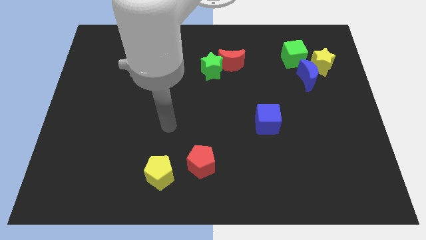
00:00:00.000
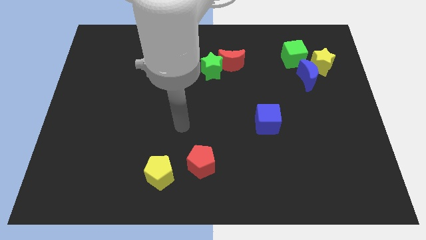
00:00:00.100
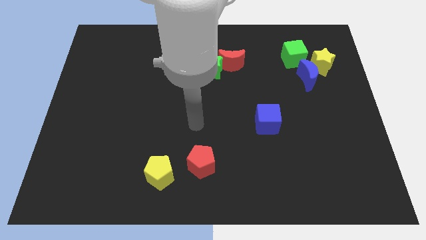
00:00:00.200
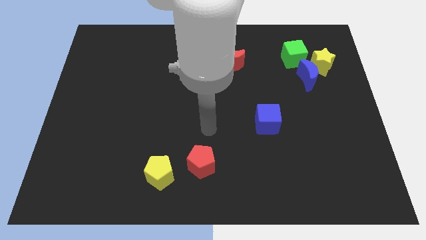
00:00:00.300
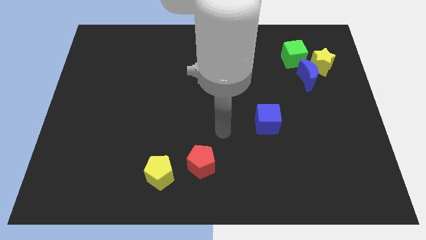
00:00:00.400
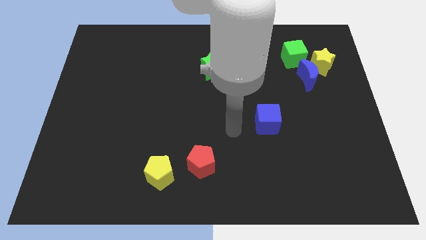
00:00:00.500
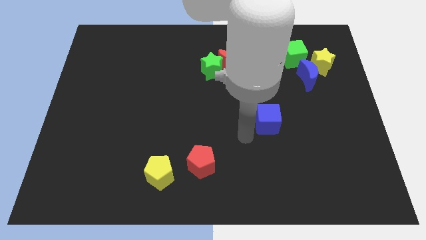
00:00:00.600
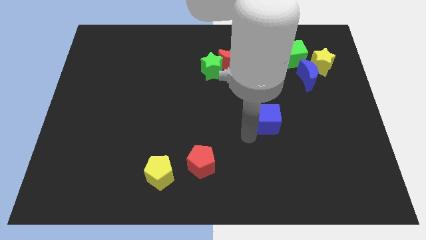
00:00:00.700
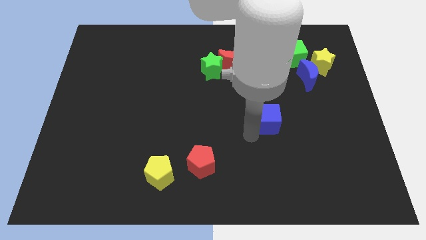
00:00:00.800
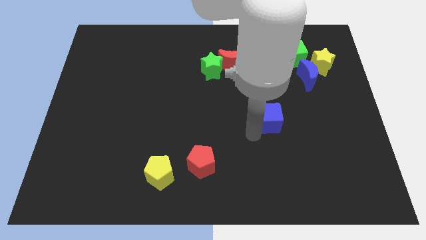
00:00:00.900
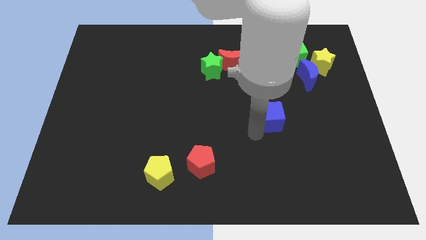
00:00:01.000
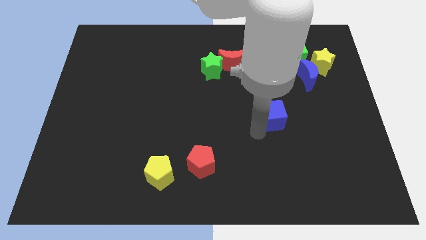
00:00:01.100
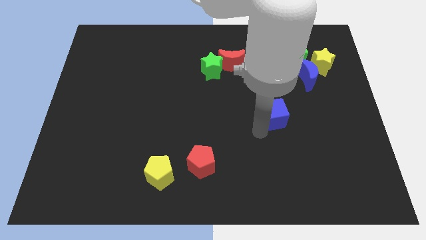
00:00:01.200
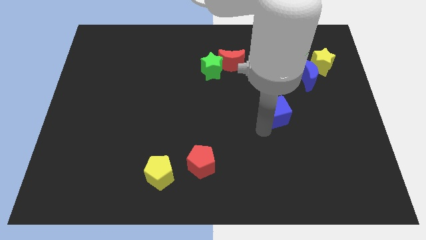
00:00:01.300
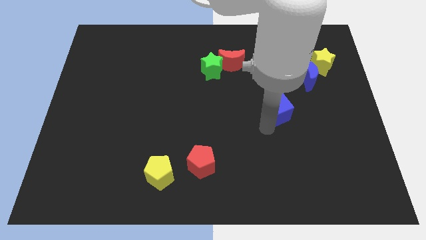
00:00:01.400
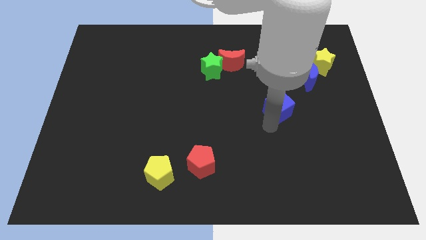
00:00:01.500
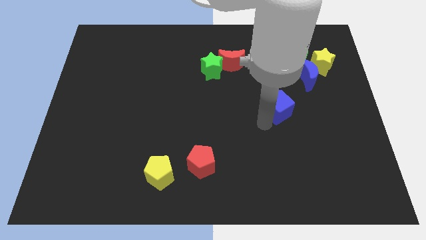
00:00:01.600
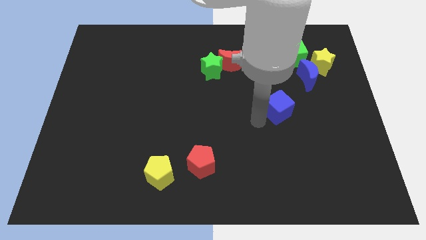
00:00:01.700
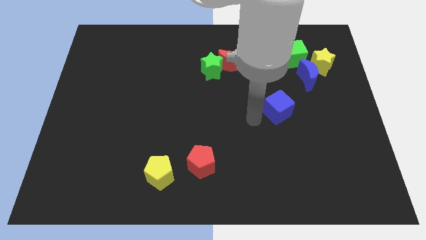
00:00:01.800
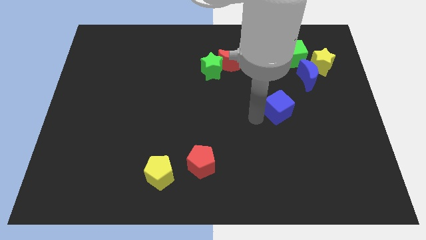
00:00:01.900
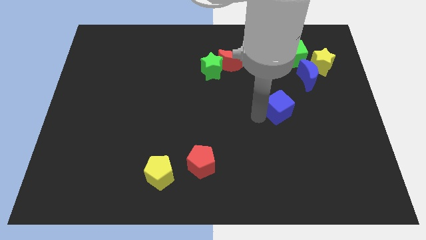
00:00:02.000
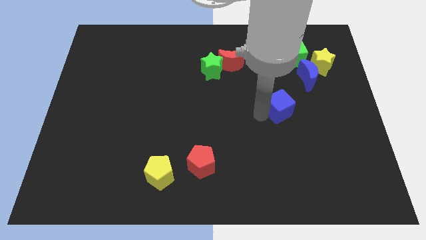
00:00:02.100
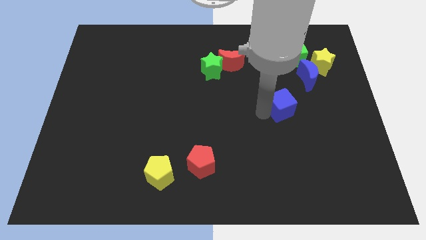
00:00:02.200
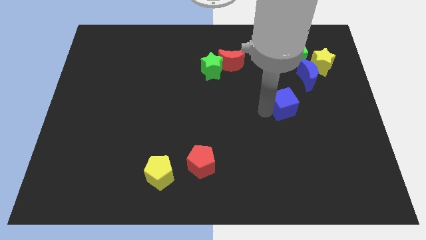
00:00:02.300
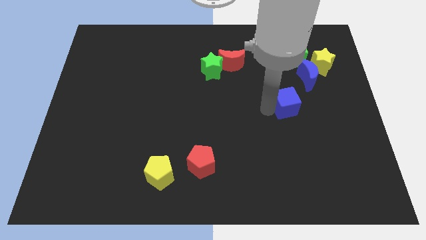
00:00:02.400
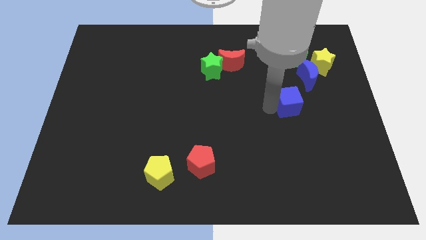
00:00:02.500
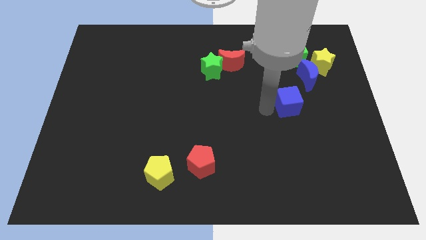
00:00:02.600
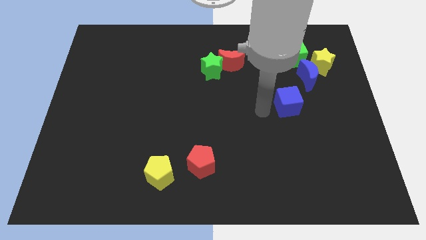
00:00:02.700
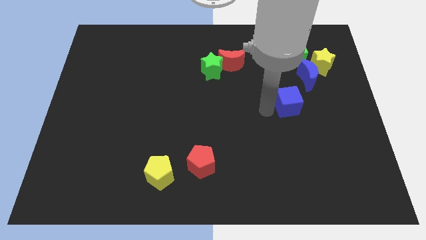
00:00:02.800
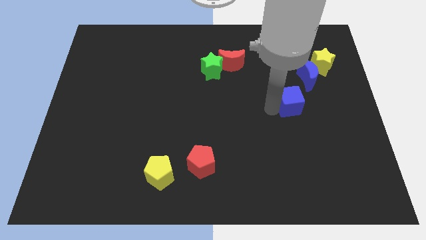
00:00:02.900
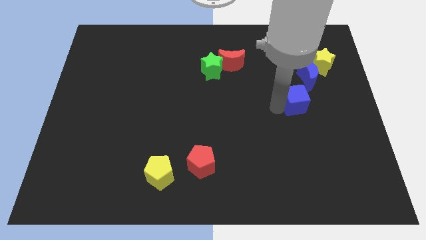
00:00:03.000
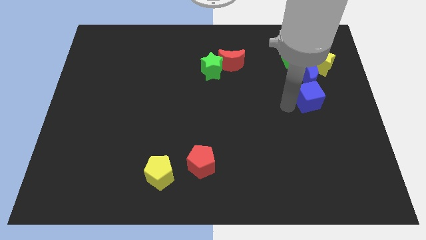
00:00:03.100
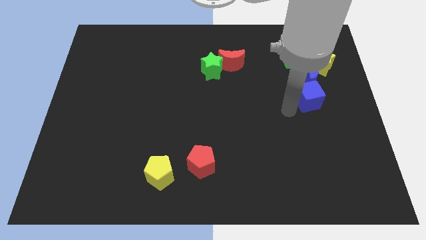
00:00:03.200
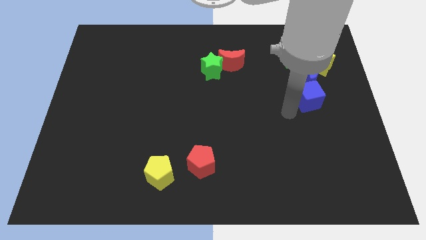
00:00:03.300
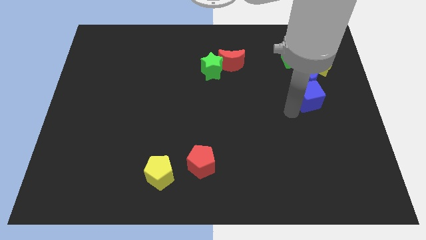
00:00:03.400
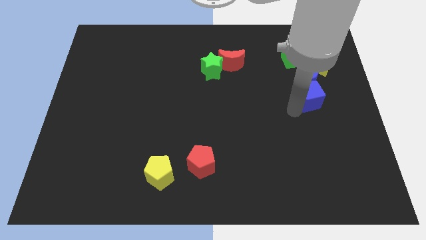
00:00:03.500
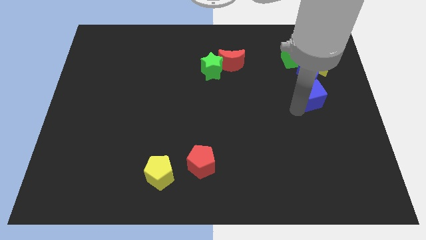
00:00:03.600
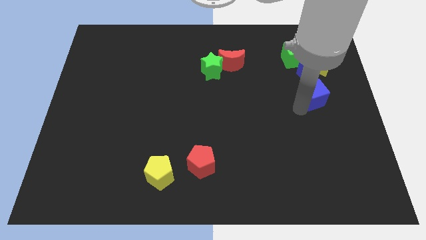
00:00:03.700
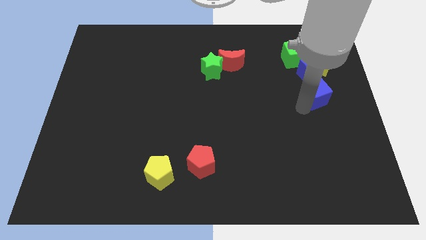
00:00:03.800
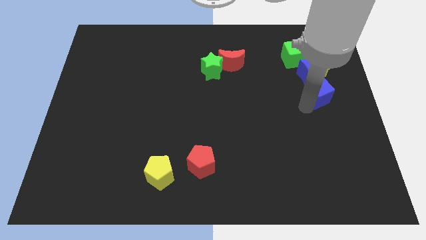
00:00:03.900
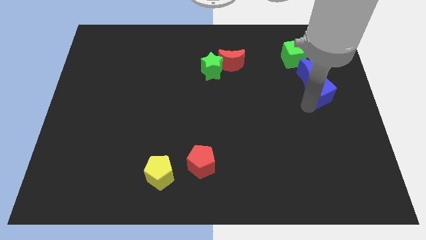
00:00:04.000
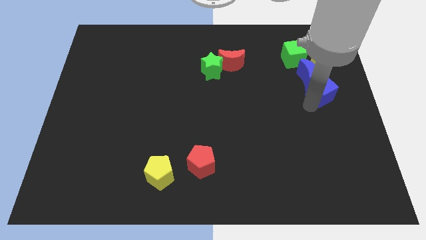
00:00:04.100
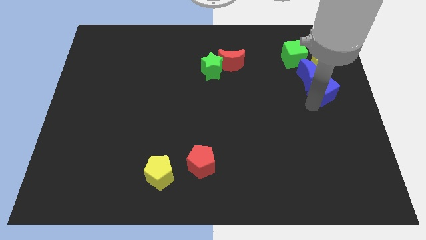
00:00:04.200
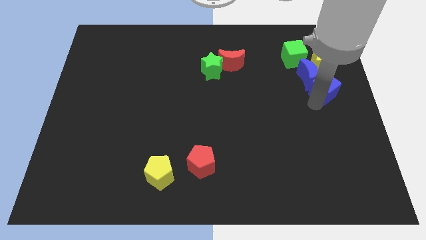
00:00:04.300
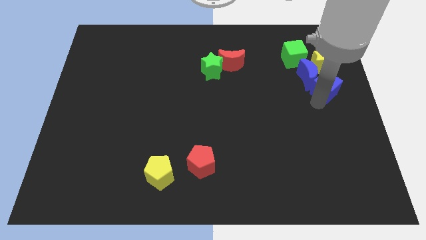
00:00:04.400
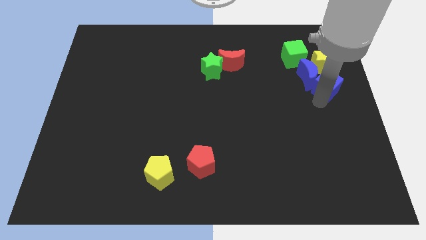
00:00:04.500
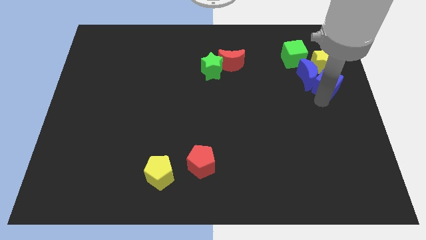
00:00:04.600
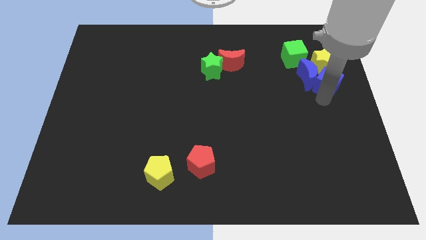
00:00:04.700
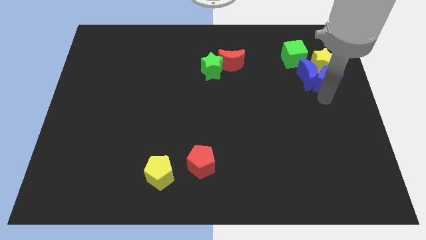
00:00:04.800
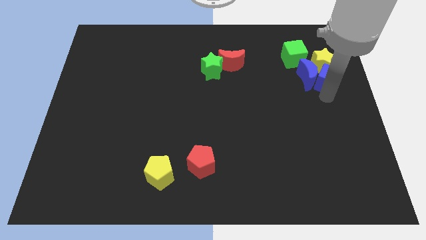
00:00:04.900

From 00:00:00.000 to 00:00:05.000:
put the blue cube towards the yellow star

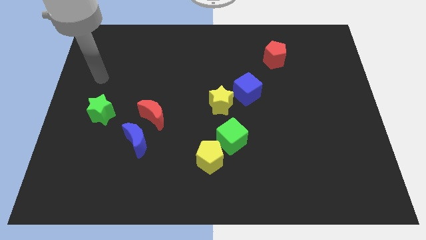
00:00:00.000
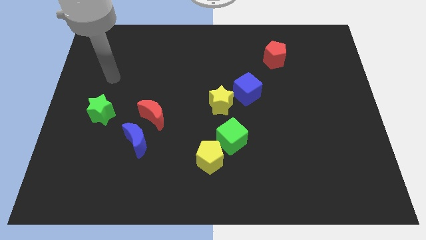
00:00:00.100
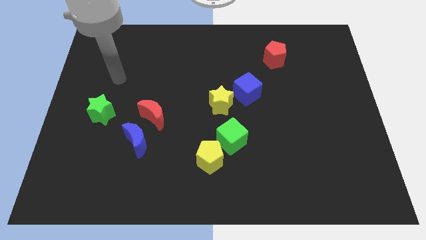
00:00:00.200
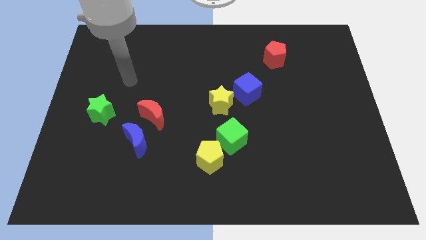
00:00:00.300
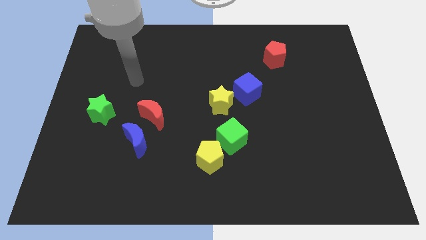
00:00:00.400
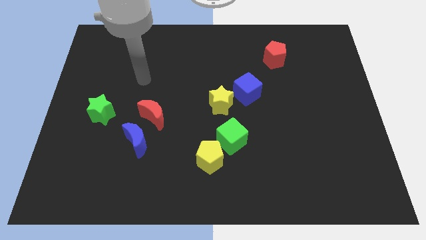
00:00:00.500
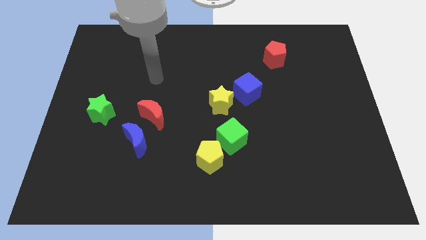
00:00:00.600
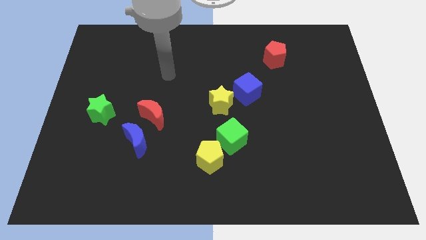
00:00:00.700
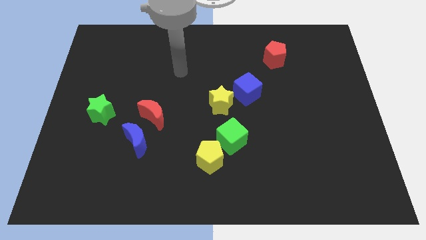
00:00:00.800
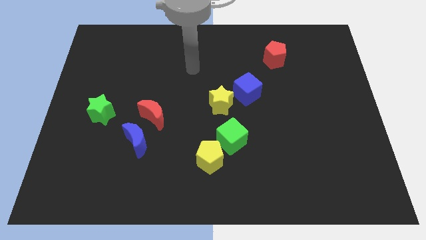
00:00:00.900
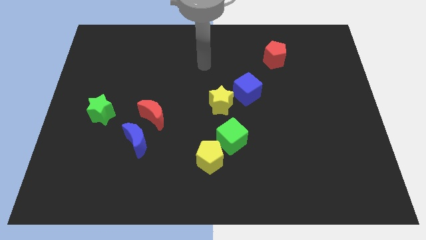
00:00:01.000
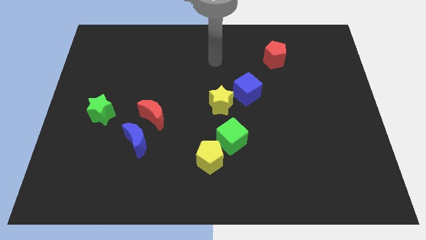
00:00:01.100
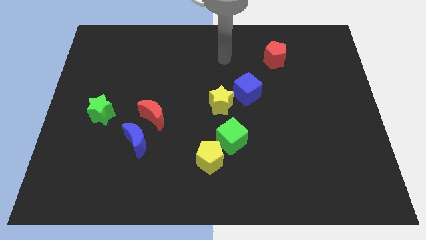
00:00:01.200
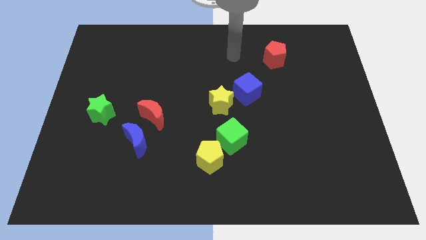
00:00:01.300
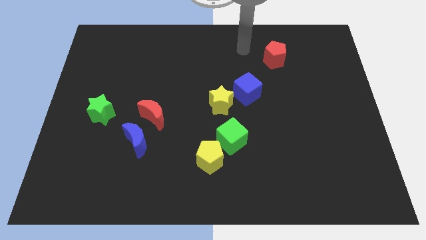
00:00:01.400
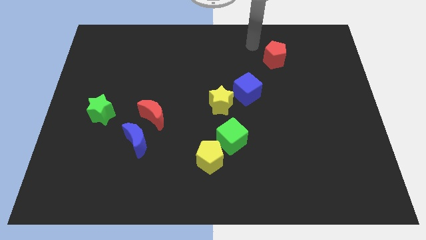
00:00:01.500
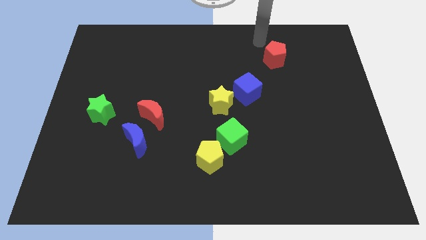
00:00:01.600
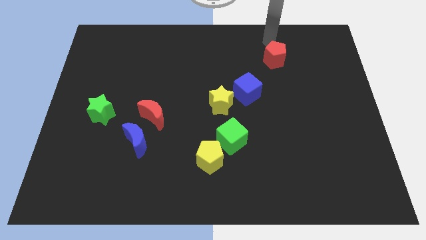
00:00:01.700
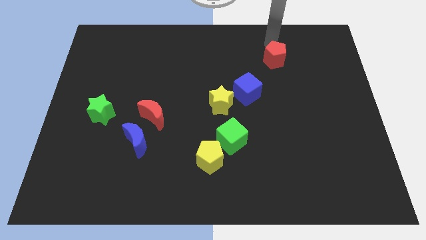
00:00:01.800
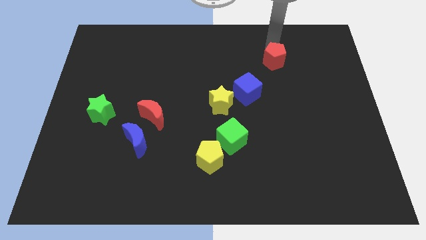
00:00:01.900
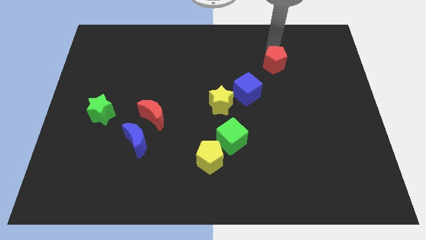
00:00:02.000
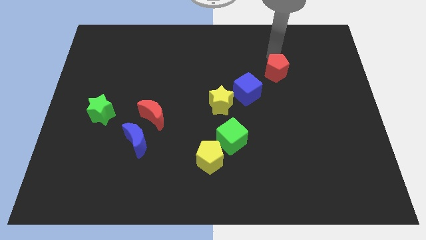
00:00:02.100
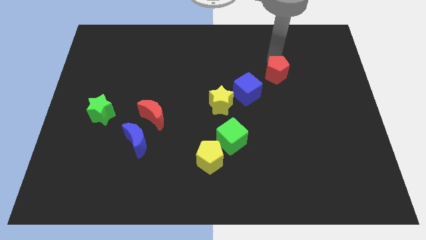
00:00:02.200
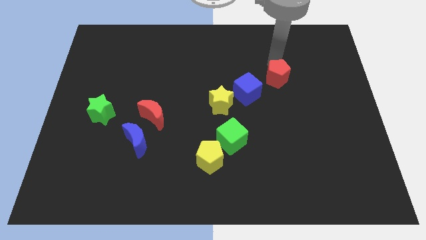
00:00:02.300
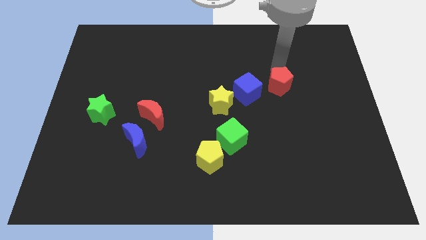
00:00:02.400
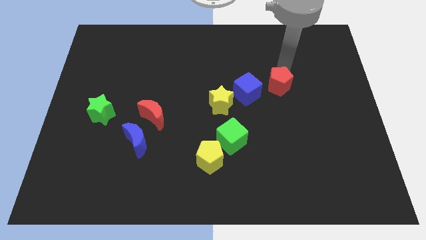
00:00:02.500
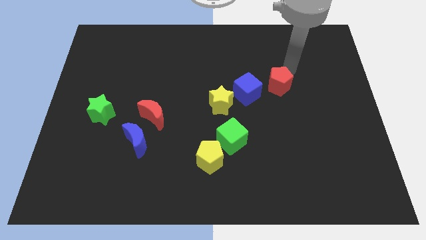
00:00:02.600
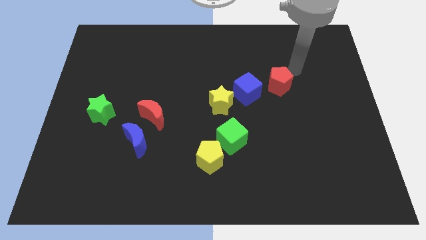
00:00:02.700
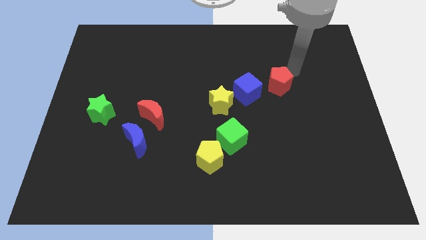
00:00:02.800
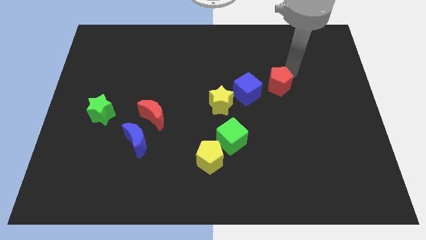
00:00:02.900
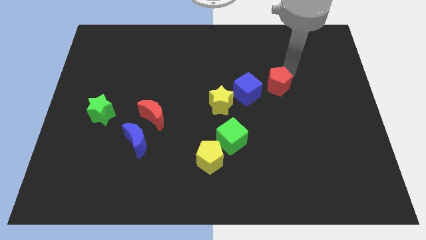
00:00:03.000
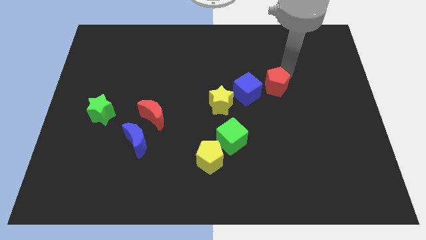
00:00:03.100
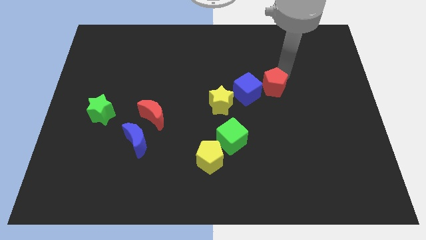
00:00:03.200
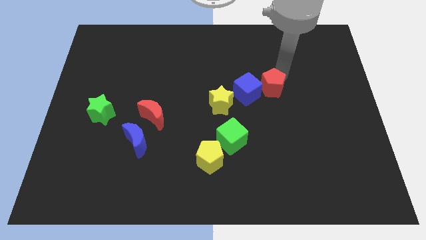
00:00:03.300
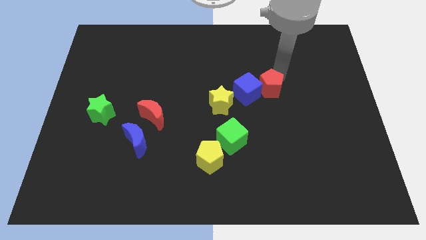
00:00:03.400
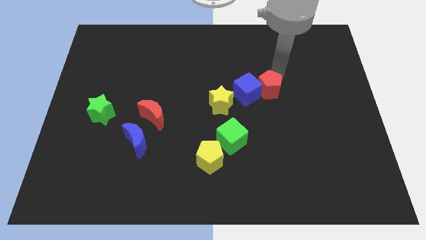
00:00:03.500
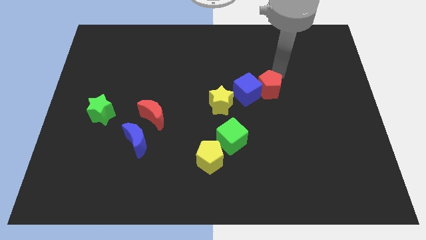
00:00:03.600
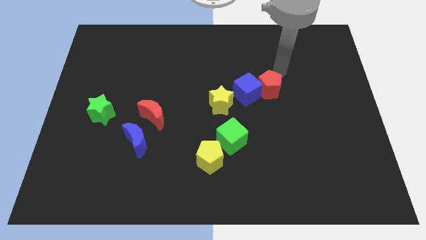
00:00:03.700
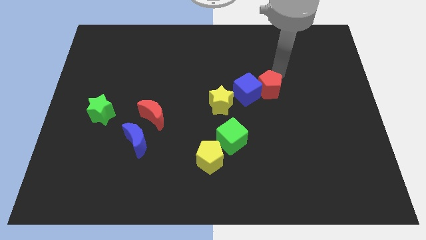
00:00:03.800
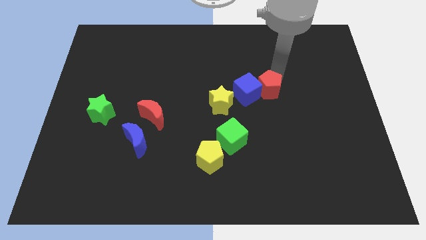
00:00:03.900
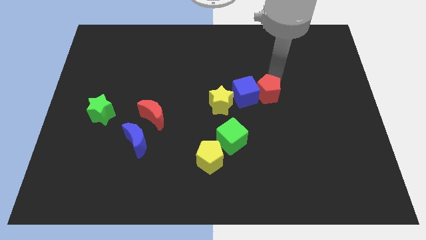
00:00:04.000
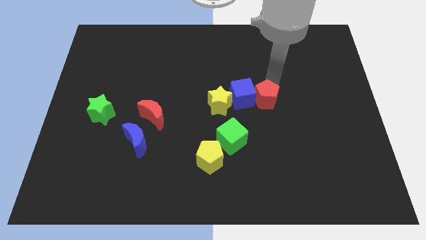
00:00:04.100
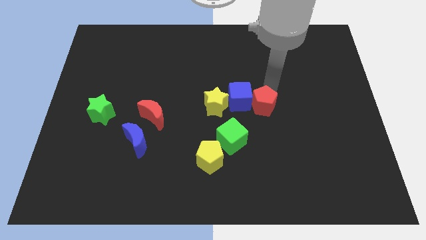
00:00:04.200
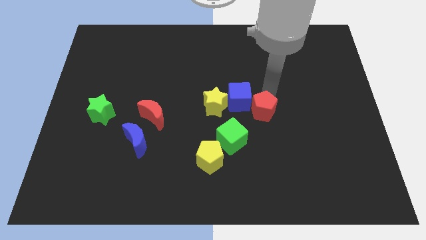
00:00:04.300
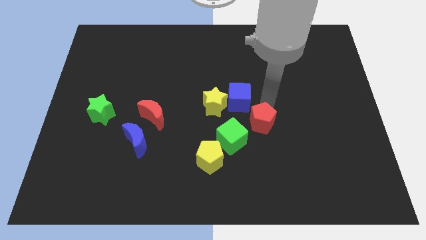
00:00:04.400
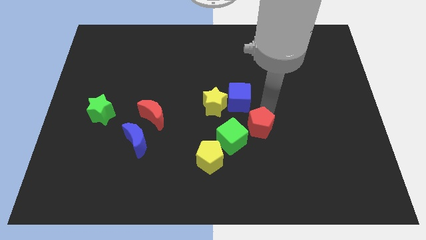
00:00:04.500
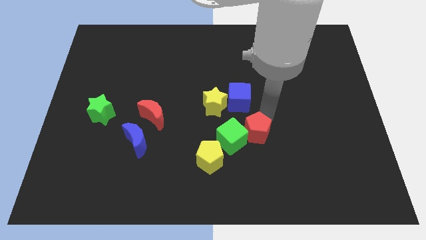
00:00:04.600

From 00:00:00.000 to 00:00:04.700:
put the red pentagon close to the green cube
